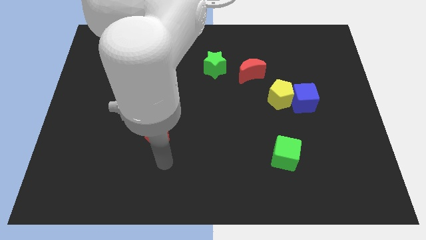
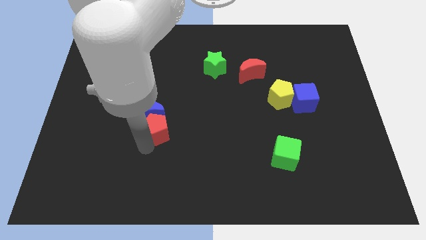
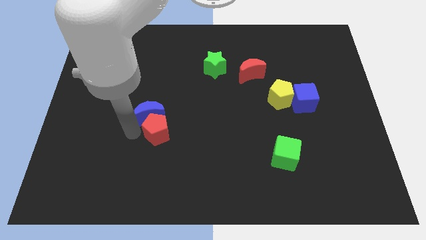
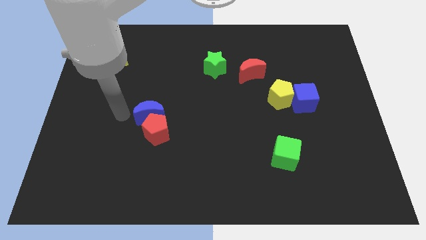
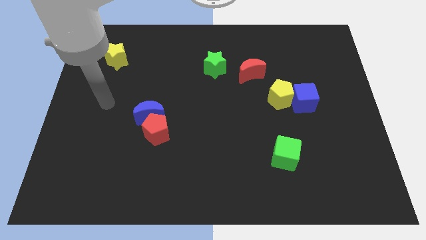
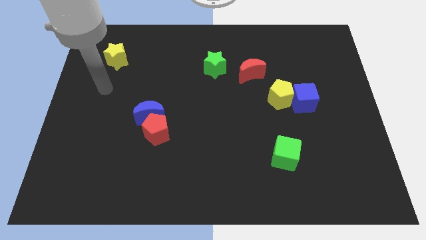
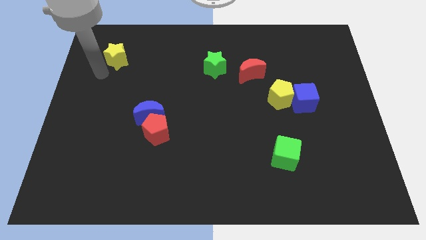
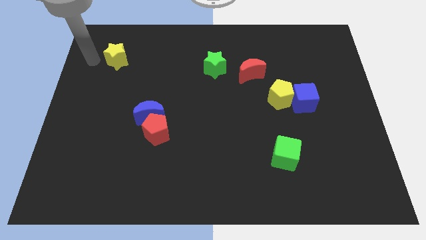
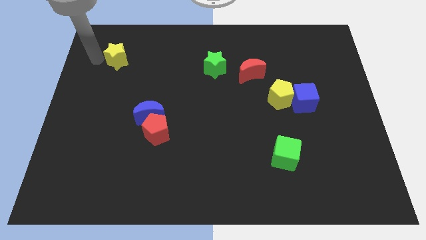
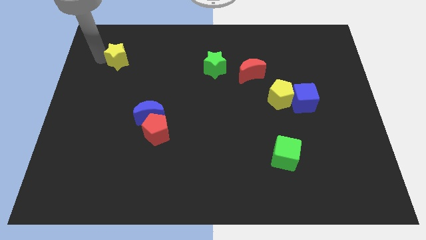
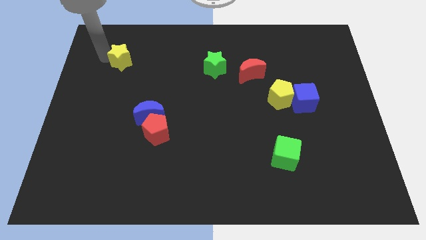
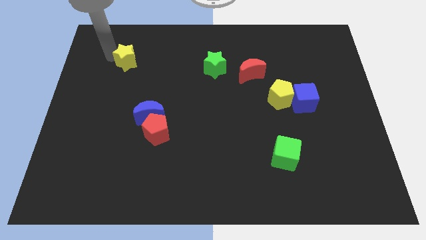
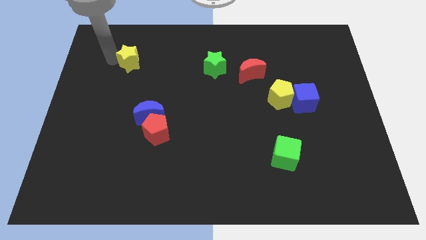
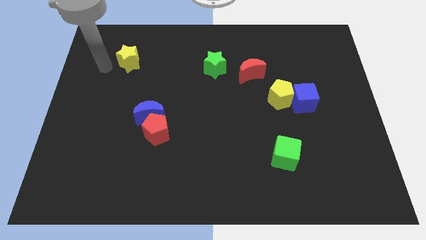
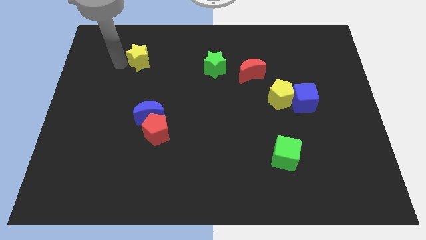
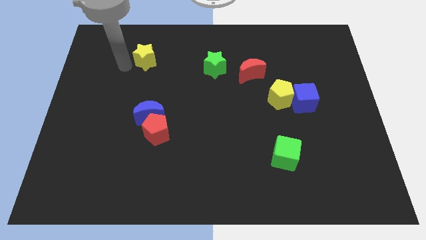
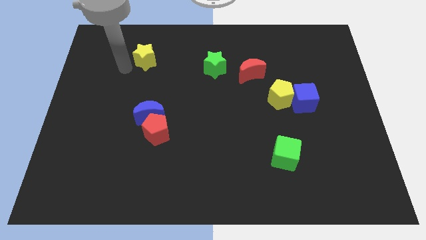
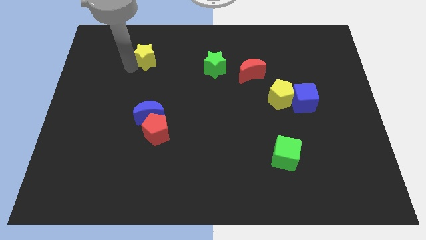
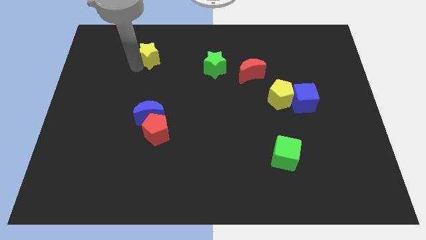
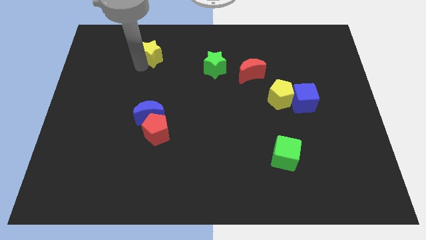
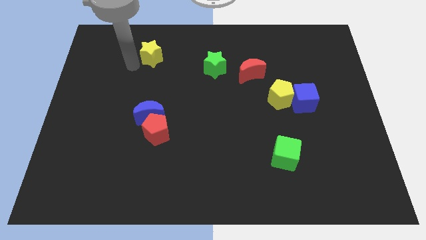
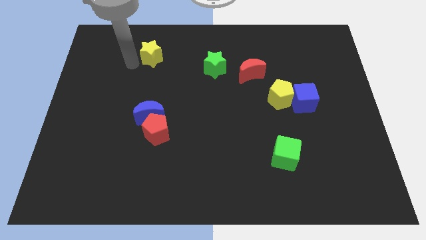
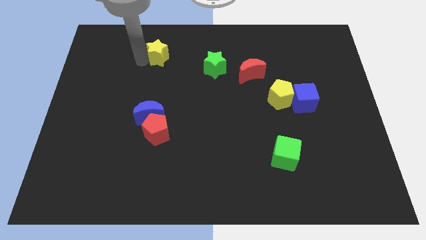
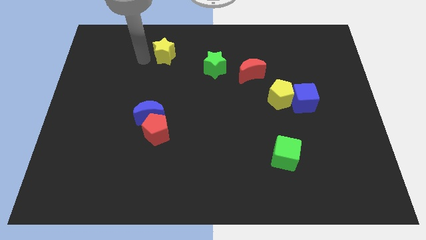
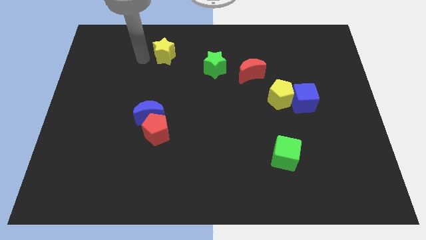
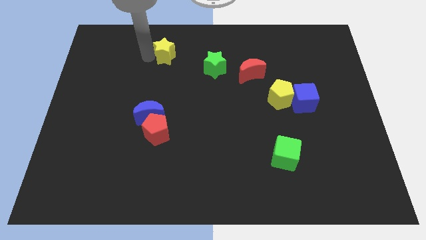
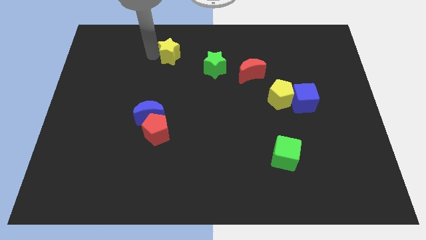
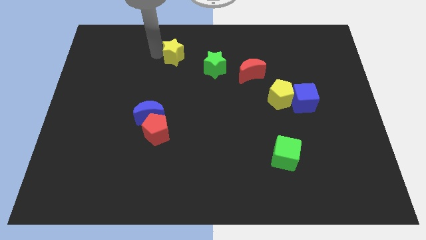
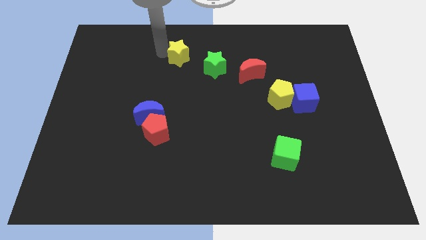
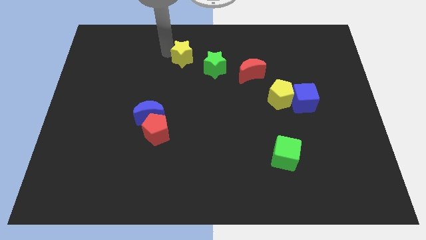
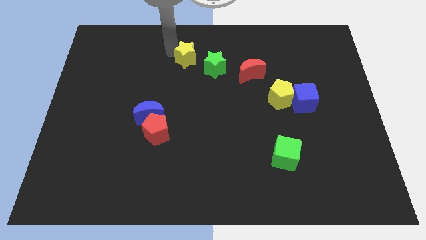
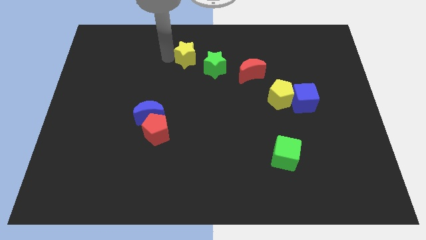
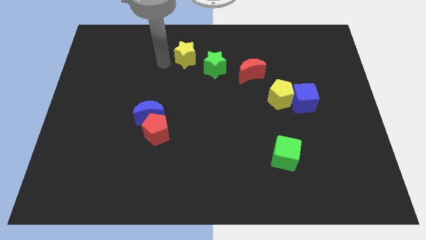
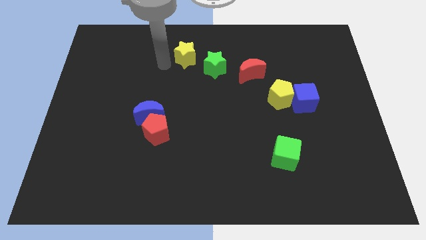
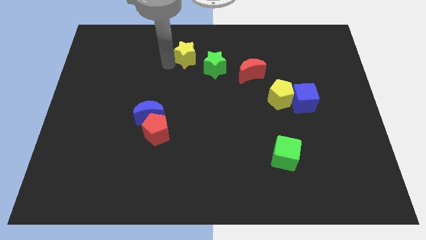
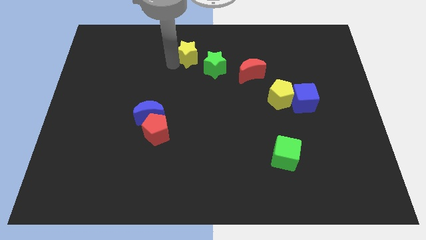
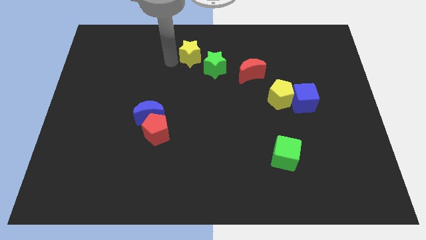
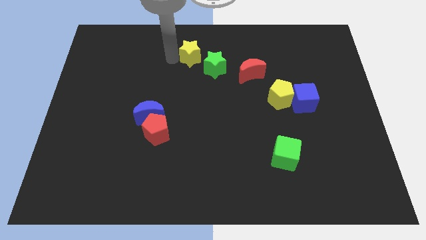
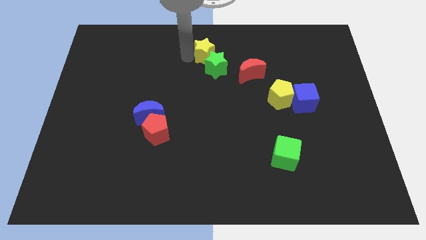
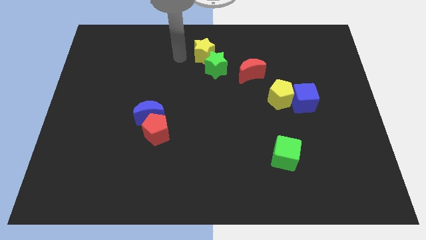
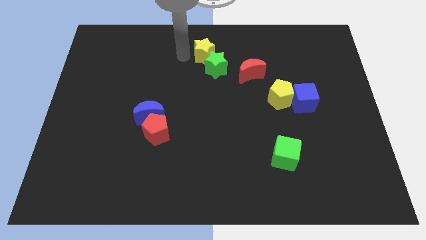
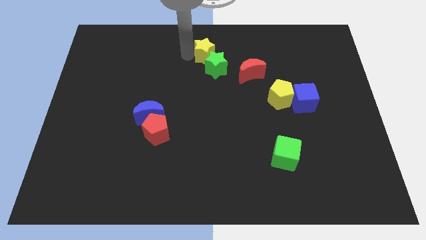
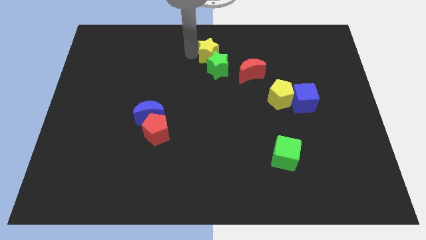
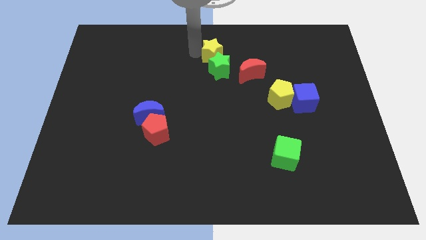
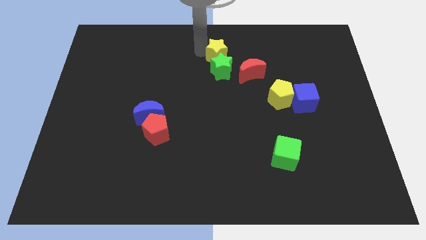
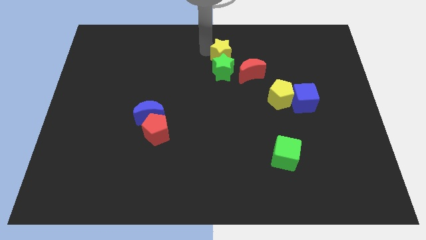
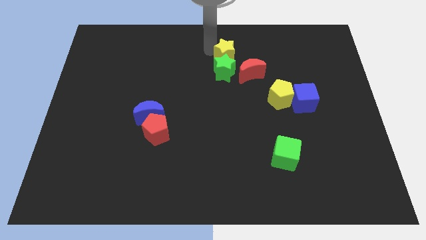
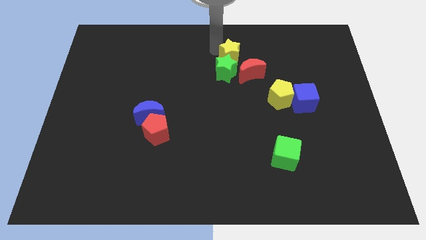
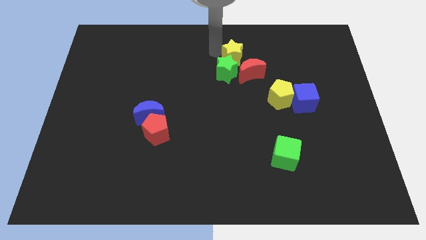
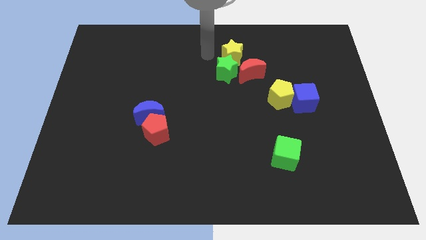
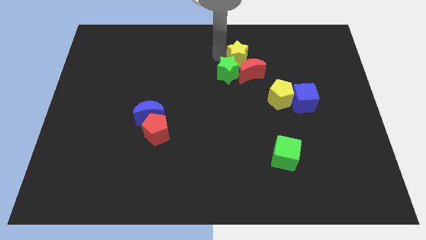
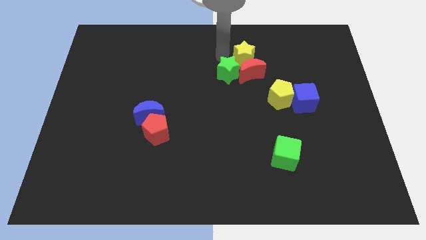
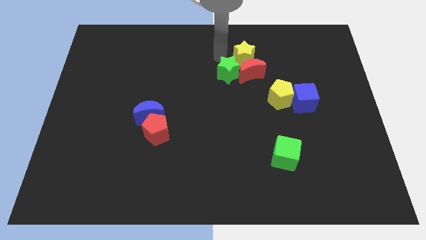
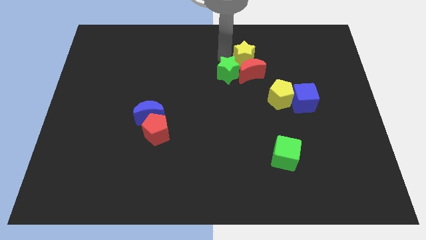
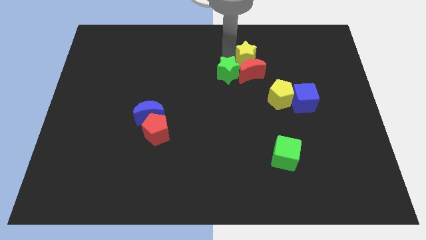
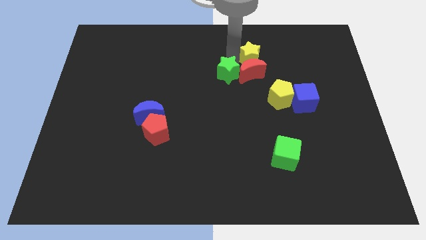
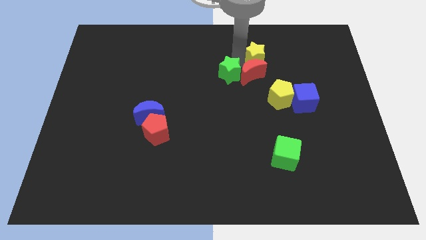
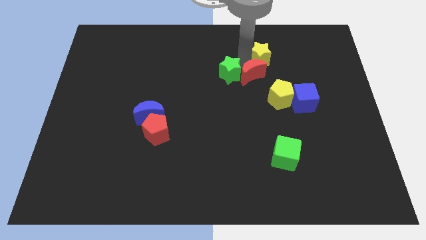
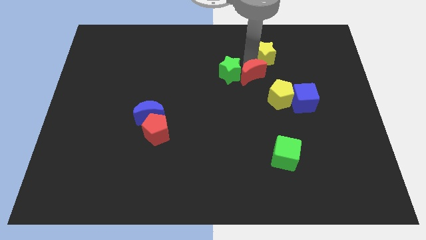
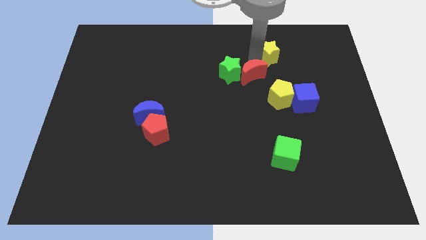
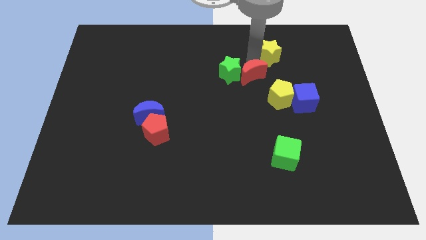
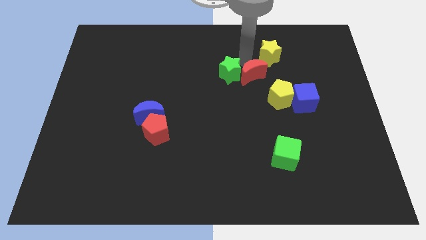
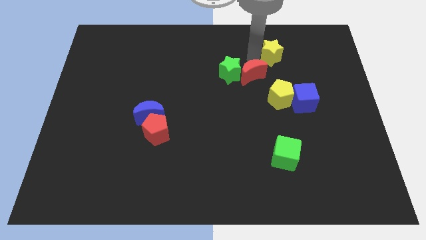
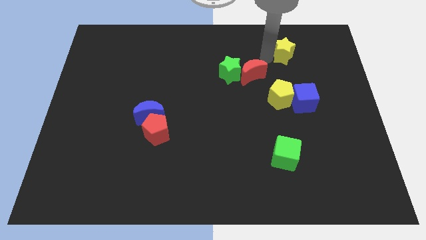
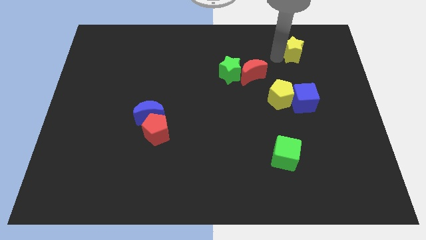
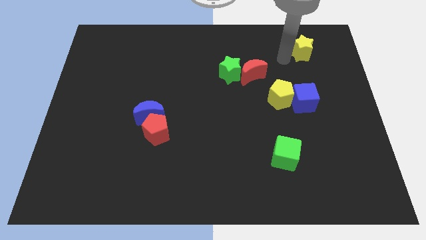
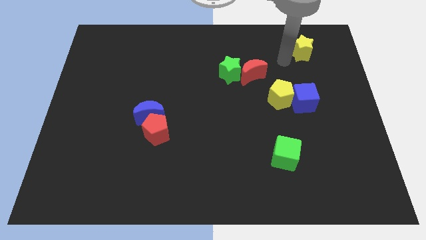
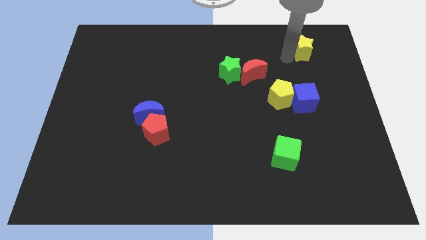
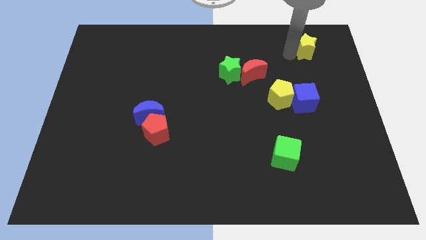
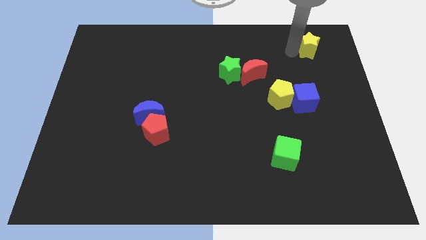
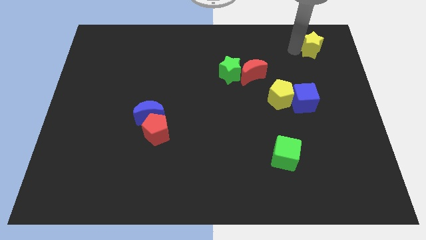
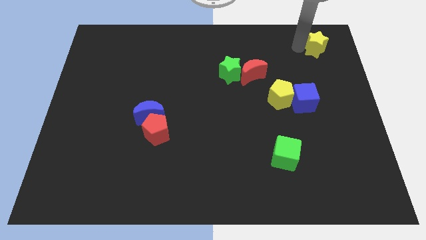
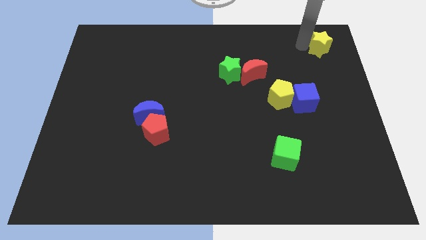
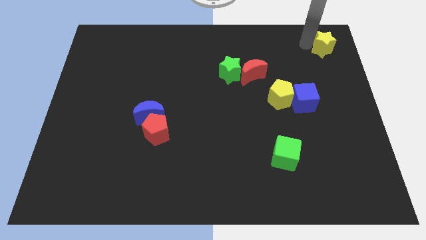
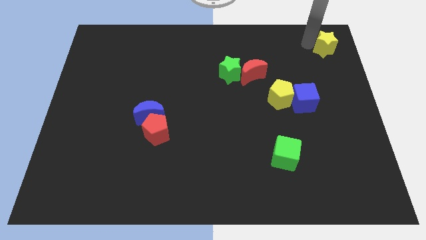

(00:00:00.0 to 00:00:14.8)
push the yellow star to the upper right corner

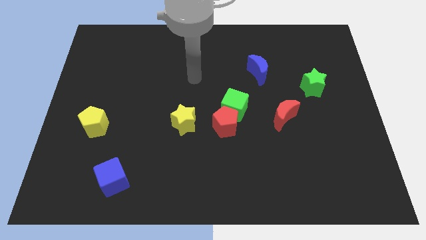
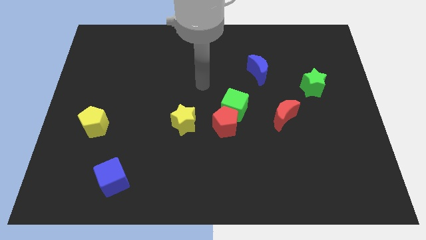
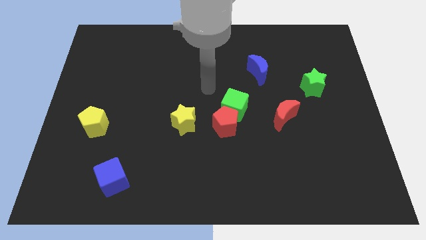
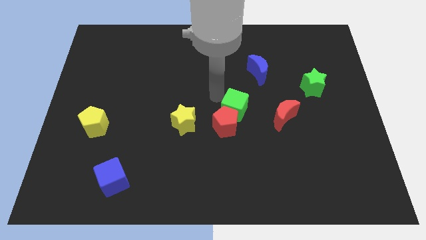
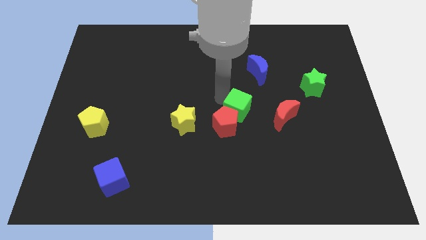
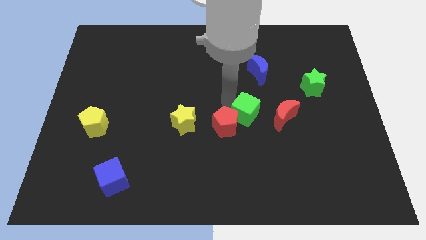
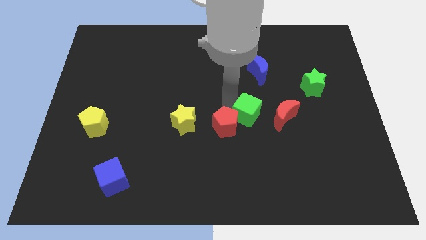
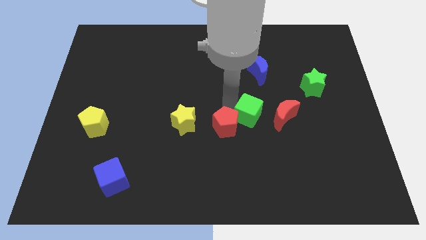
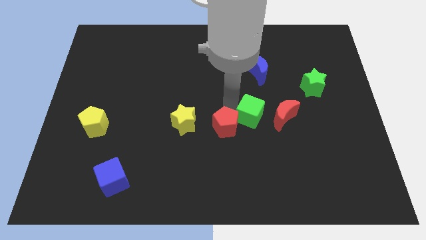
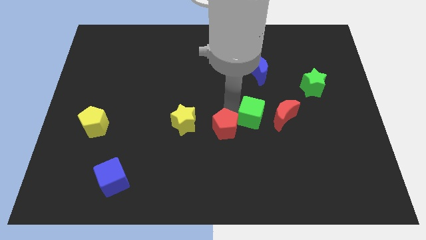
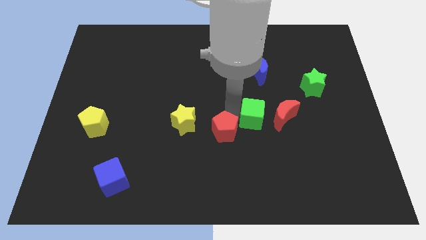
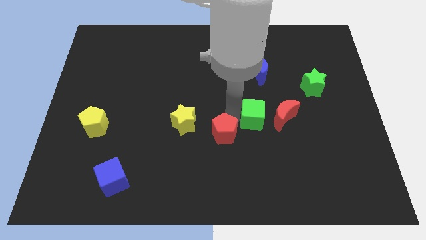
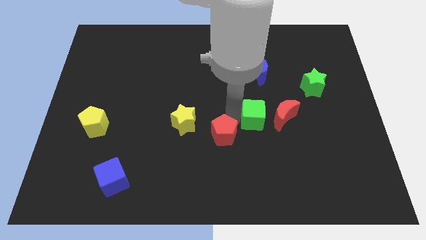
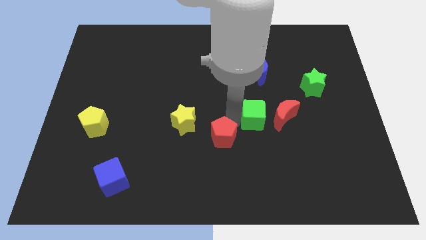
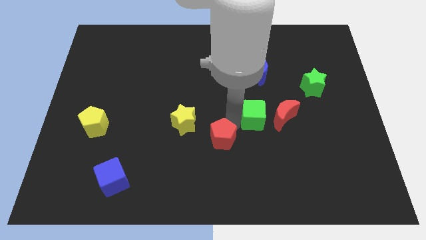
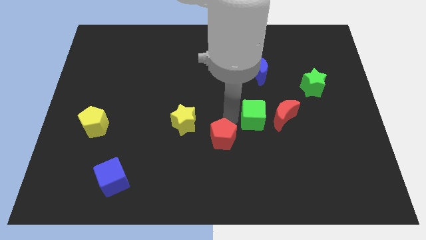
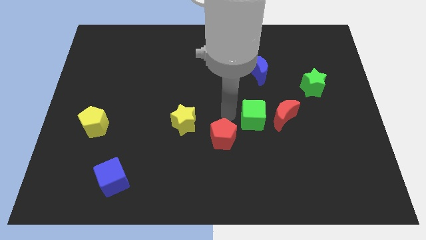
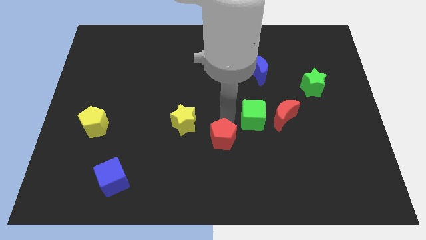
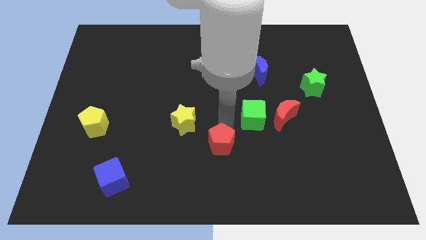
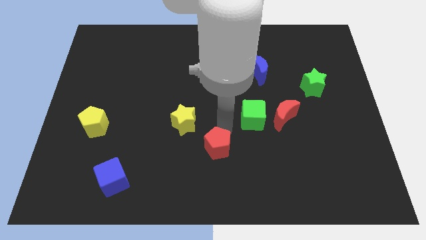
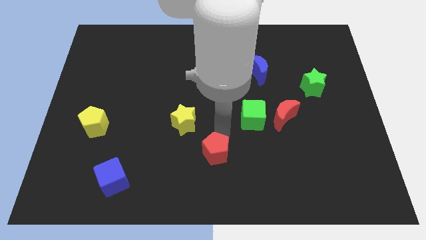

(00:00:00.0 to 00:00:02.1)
move the red pentagon to the bottom
